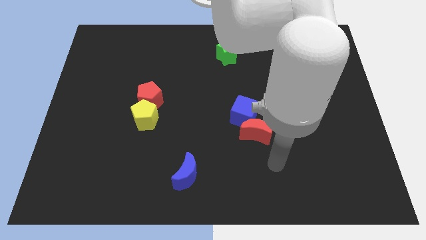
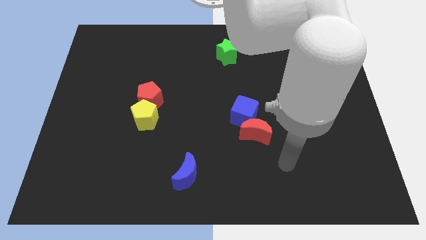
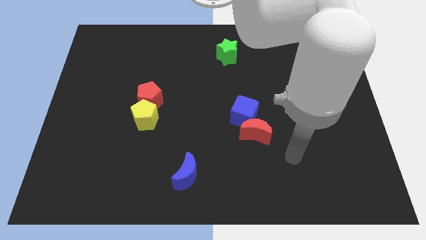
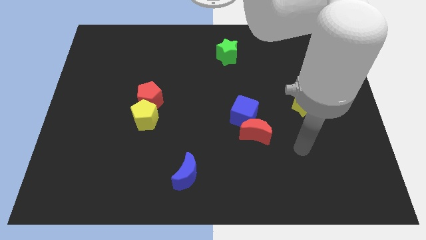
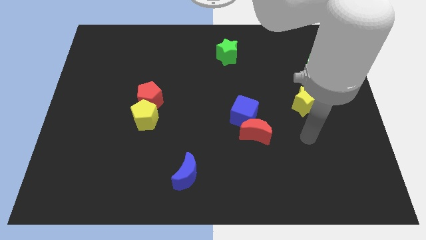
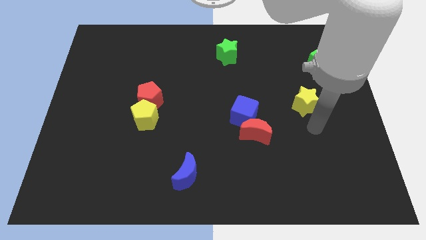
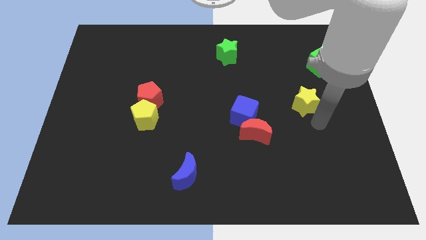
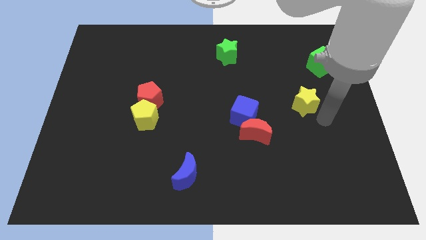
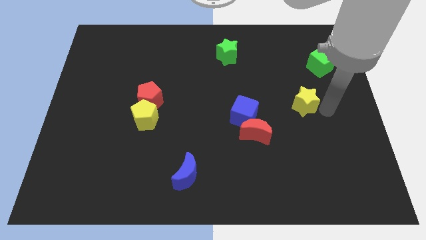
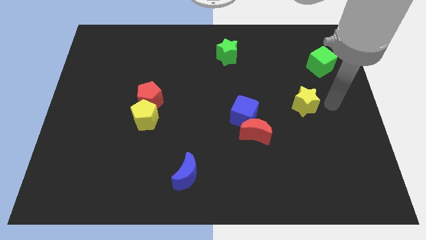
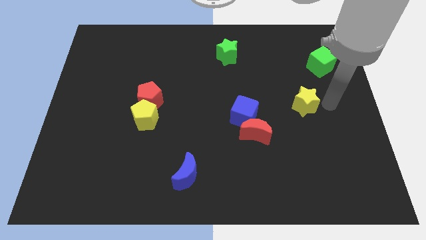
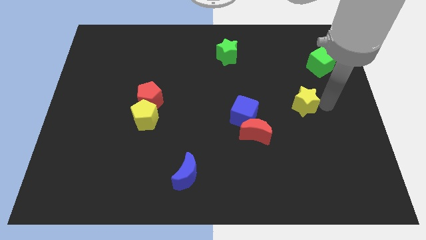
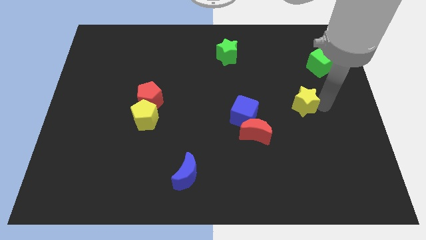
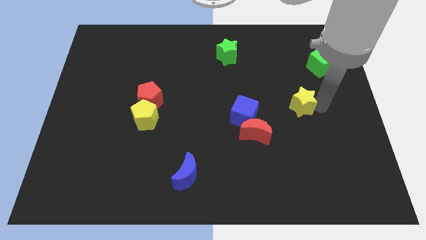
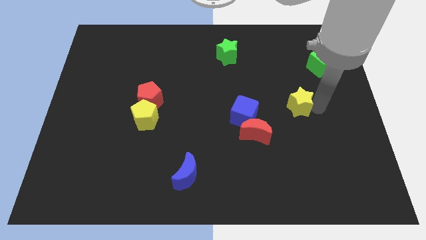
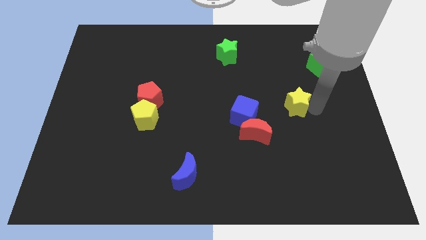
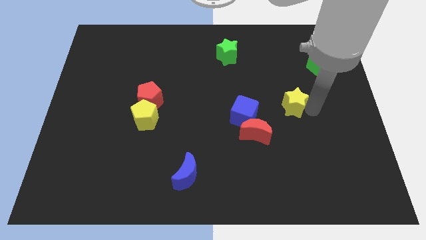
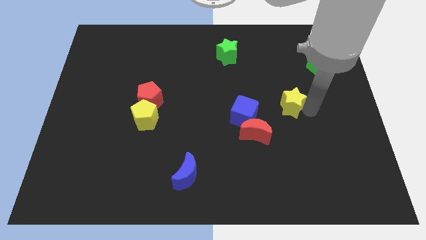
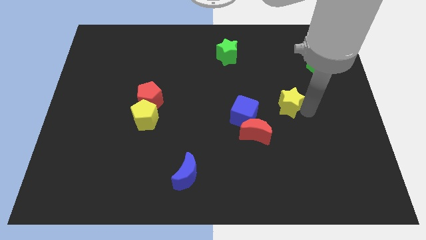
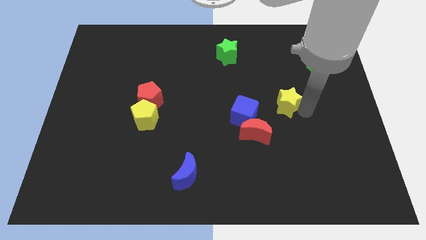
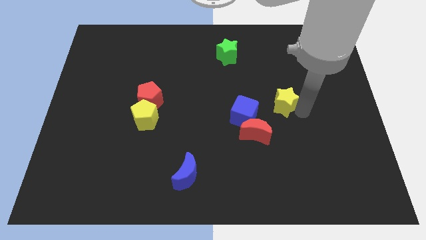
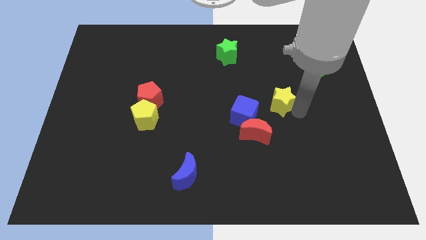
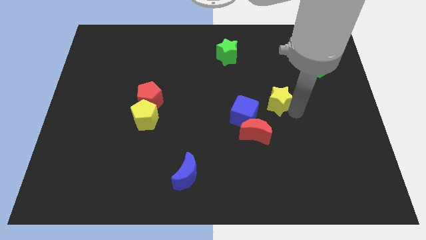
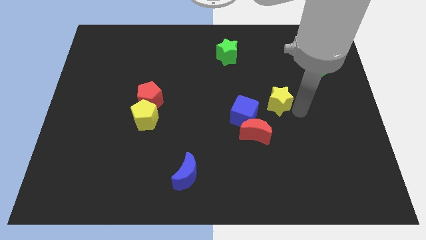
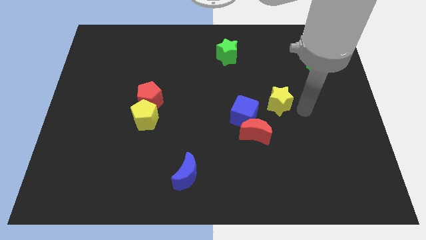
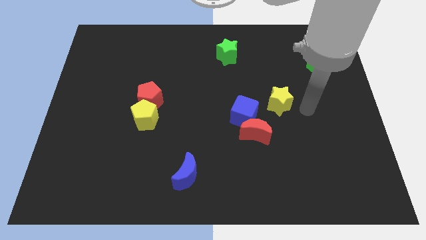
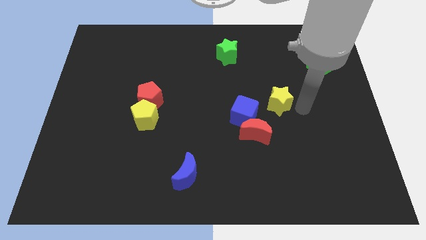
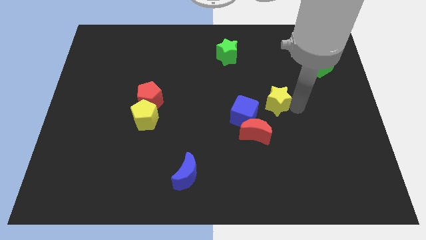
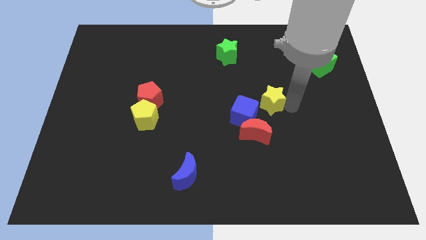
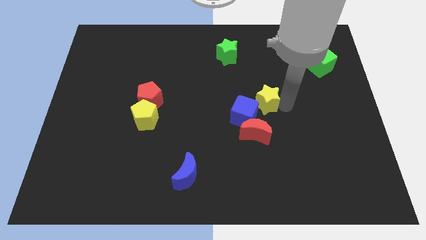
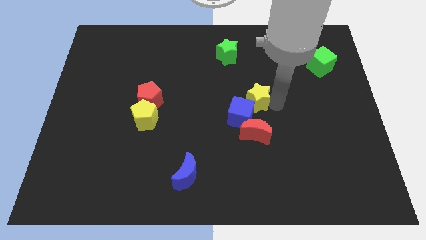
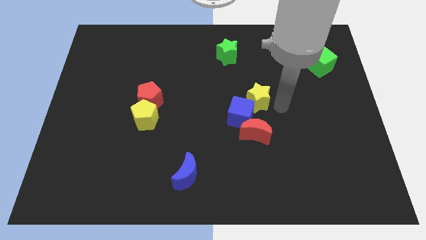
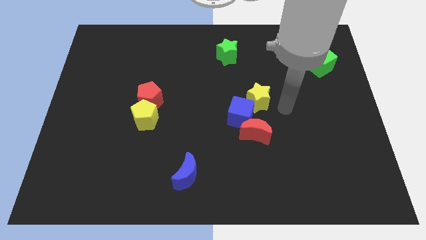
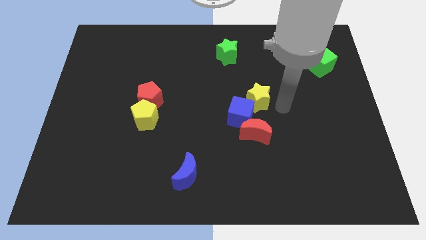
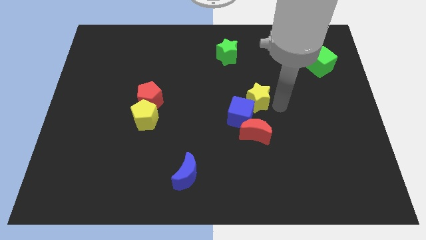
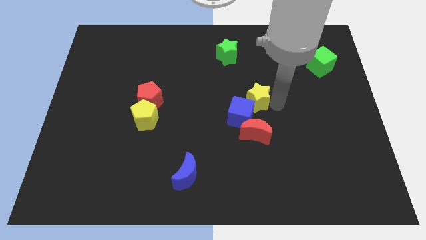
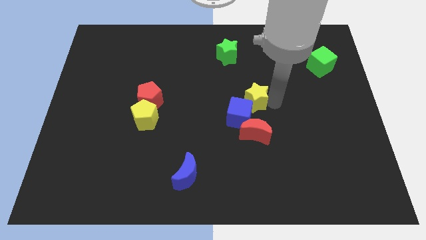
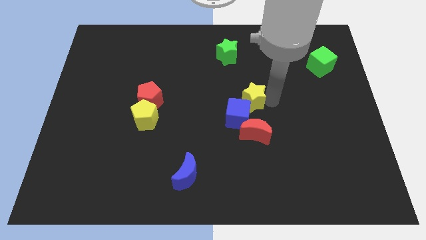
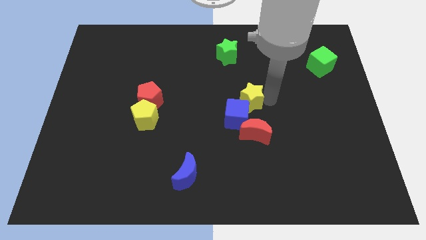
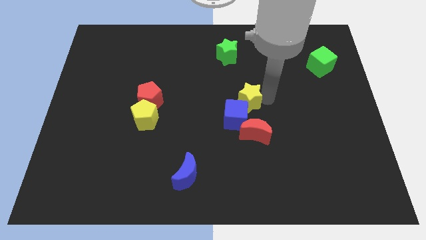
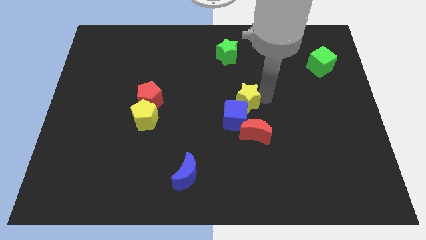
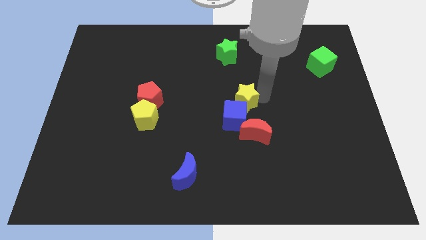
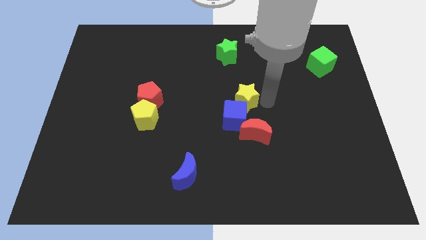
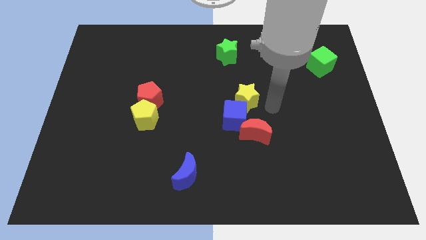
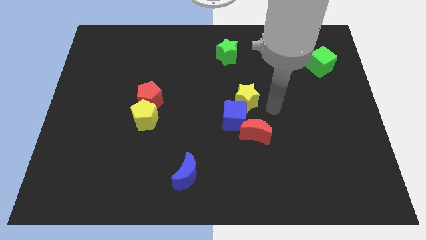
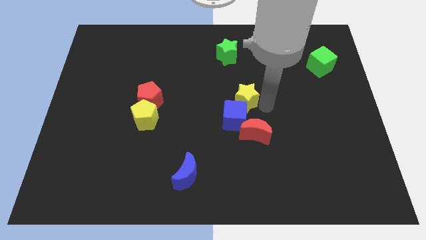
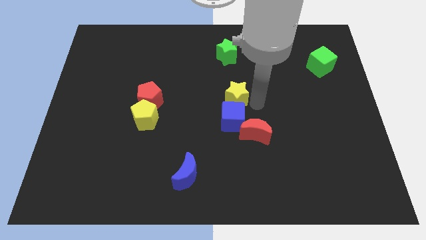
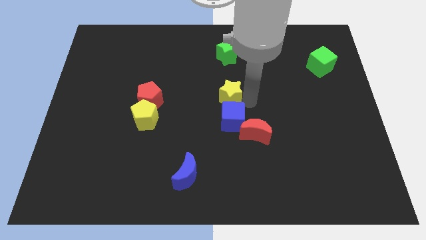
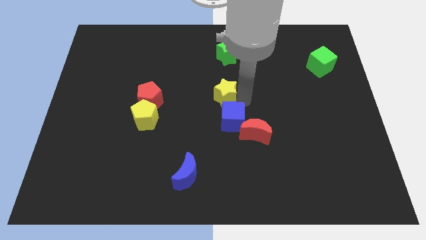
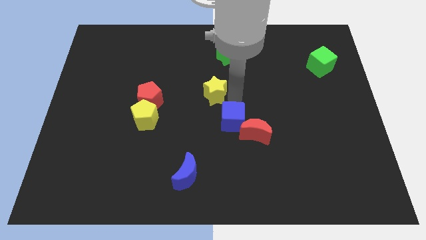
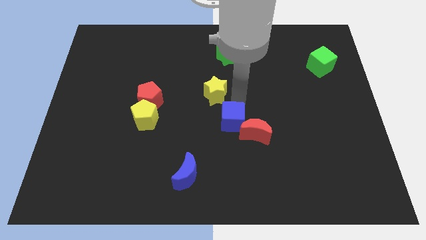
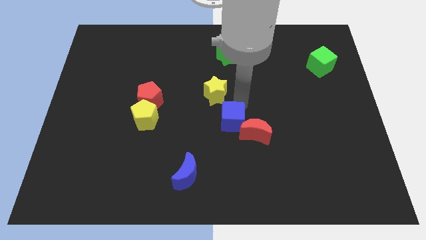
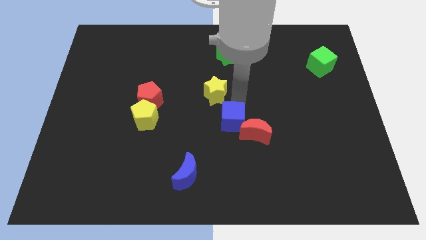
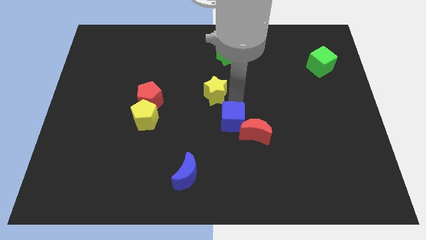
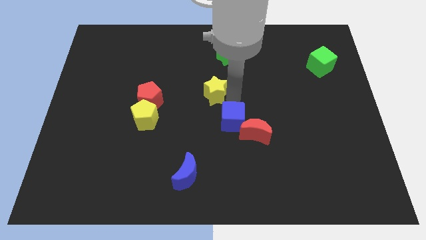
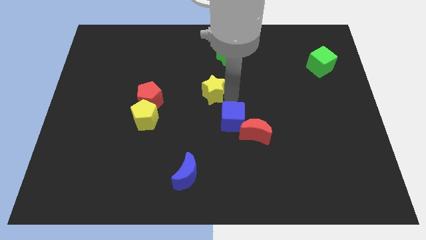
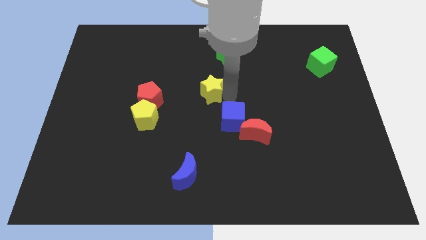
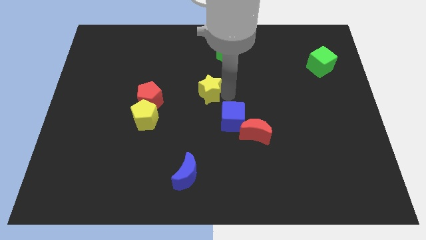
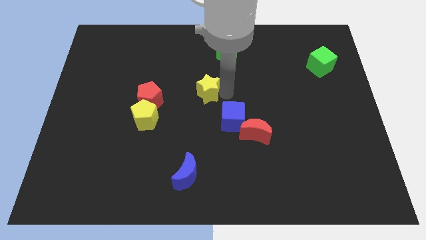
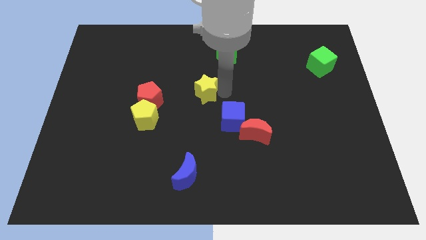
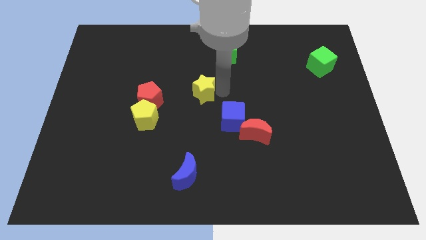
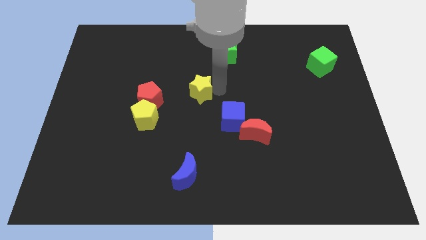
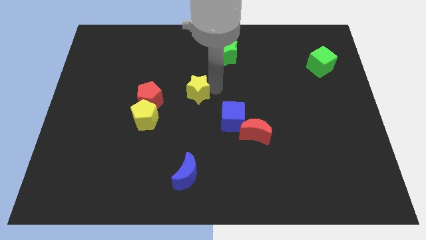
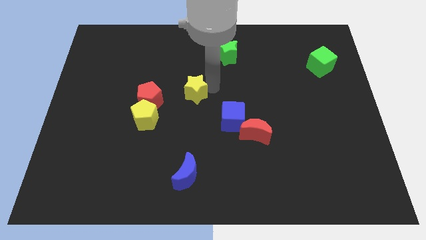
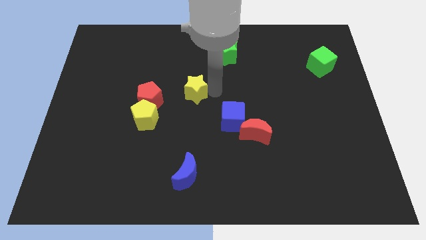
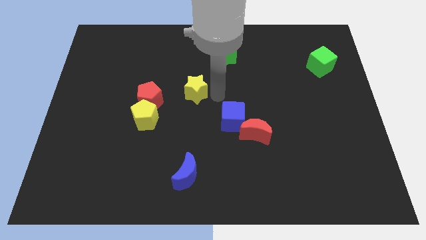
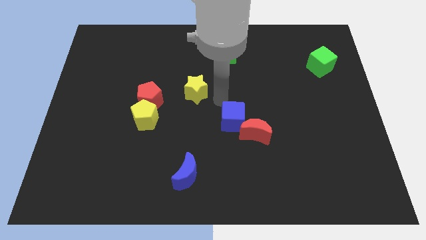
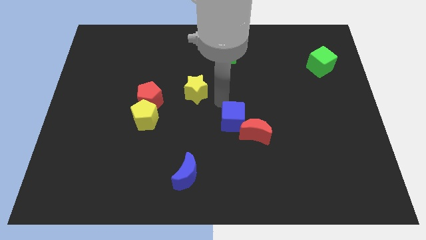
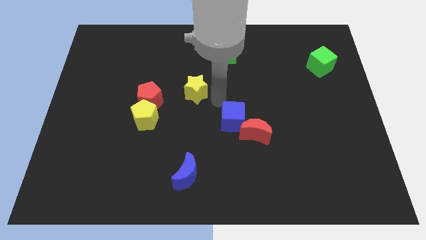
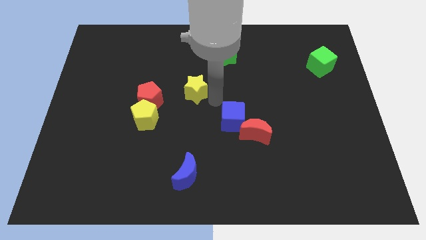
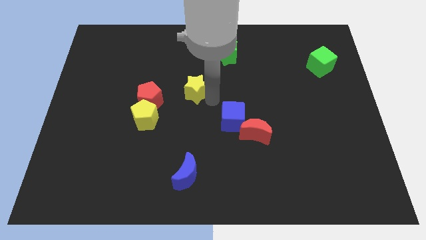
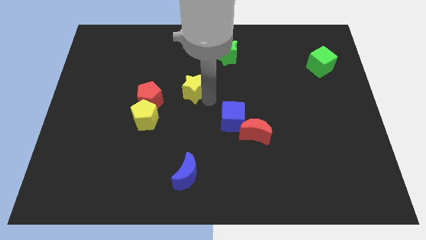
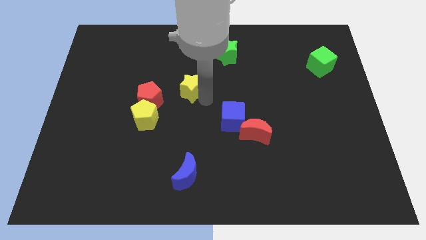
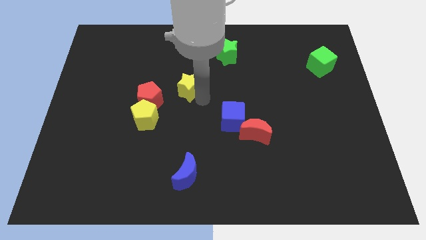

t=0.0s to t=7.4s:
push the yellow star diagonally up and to the right of the red pentagon
